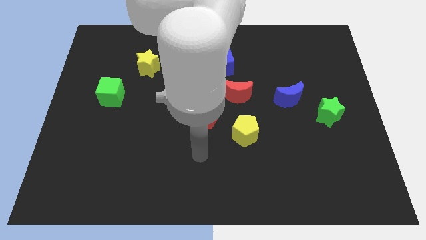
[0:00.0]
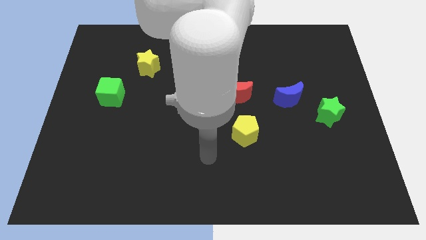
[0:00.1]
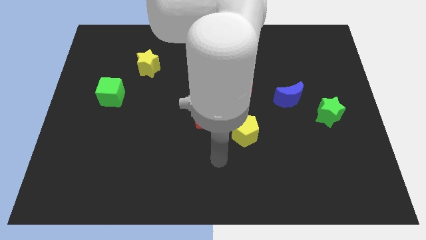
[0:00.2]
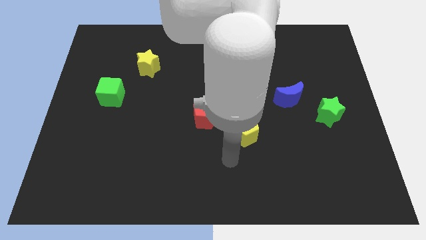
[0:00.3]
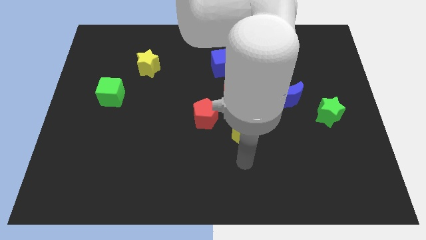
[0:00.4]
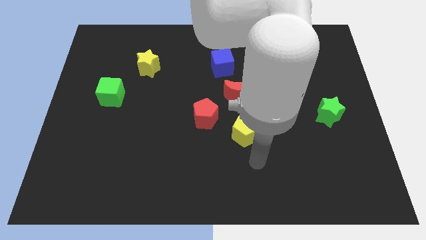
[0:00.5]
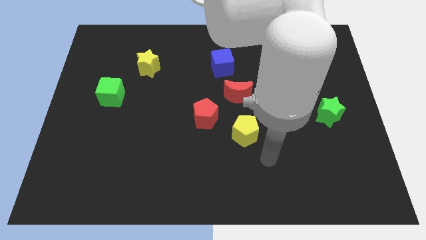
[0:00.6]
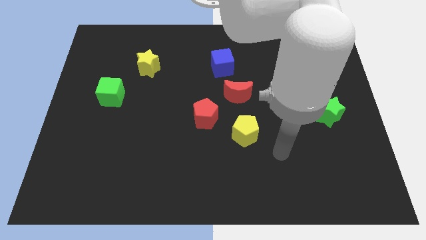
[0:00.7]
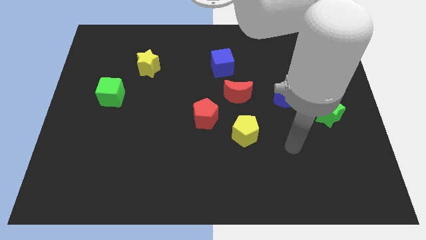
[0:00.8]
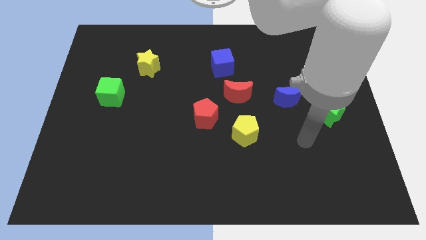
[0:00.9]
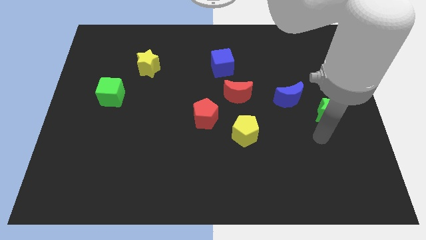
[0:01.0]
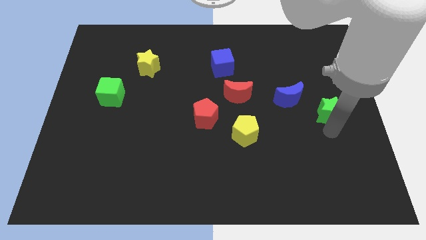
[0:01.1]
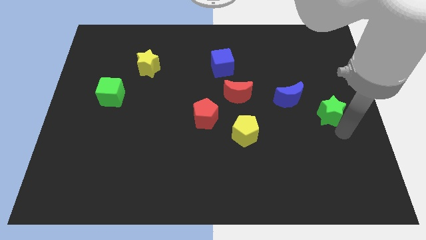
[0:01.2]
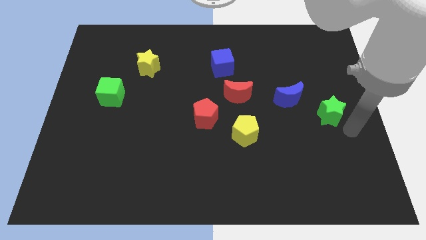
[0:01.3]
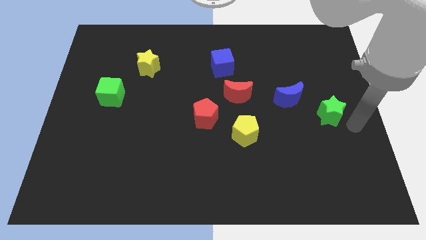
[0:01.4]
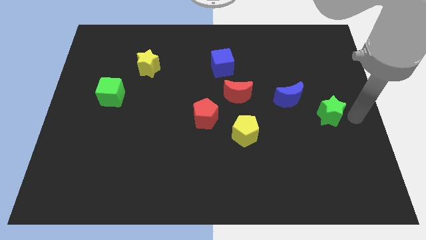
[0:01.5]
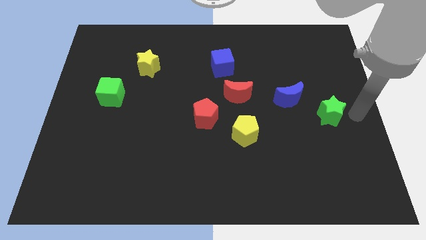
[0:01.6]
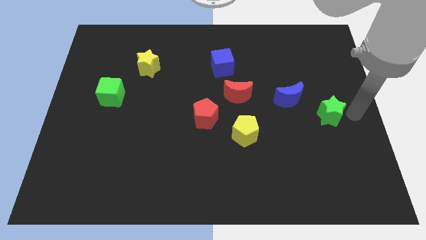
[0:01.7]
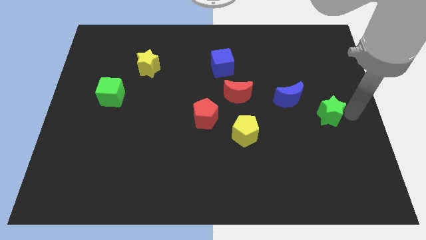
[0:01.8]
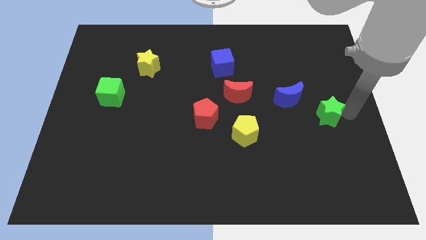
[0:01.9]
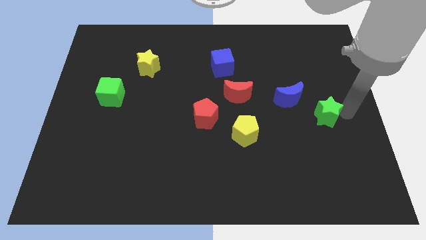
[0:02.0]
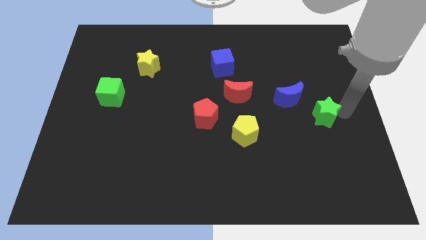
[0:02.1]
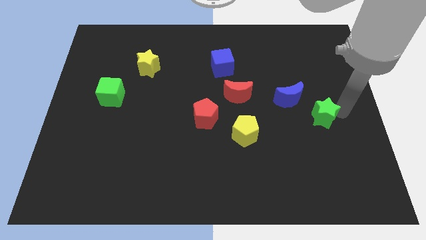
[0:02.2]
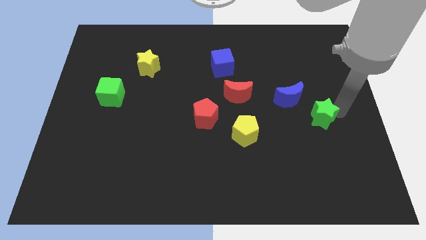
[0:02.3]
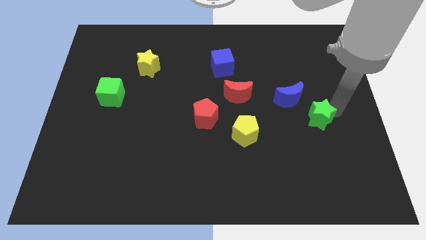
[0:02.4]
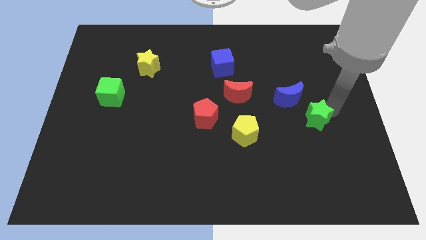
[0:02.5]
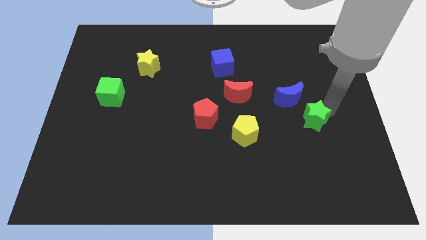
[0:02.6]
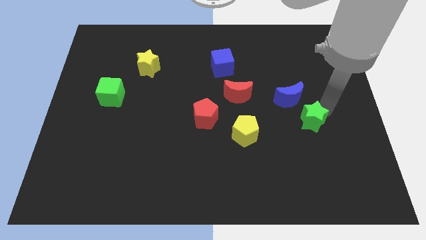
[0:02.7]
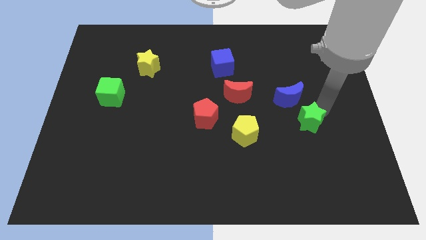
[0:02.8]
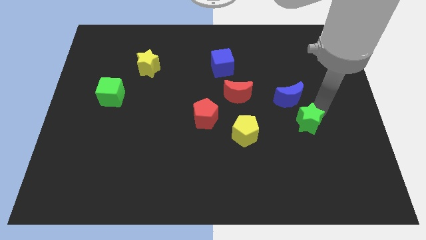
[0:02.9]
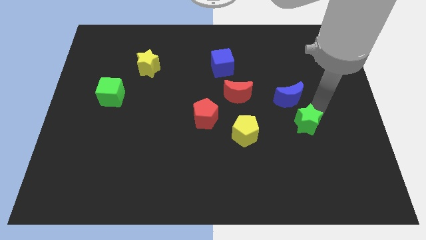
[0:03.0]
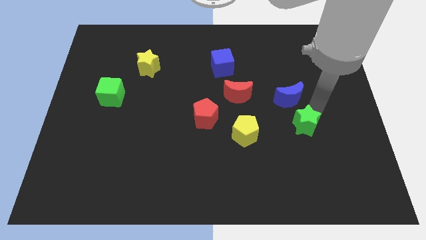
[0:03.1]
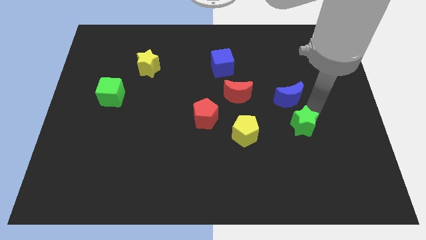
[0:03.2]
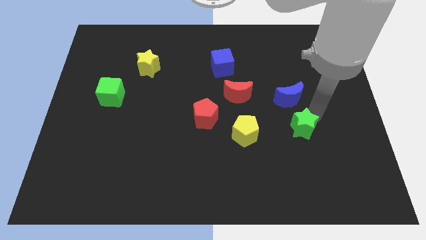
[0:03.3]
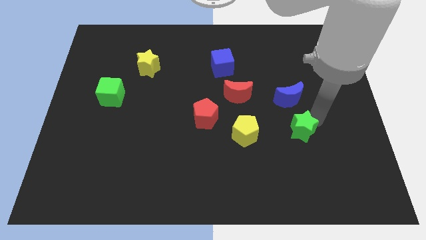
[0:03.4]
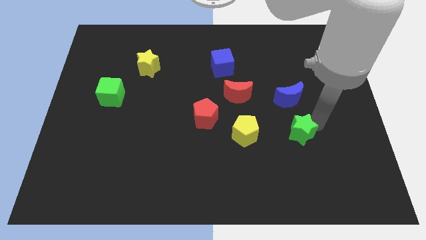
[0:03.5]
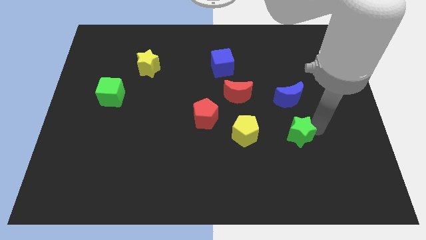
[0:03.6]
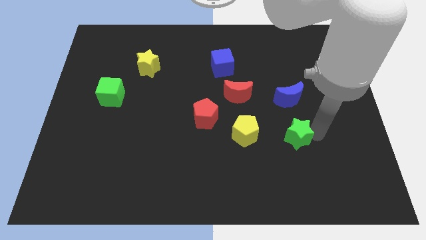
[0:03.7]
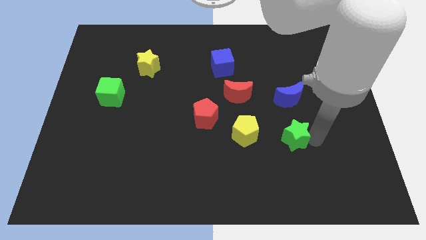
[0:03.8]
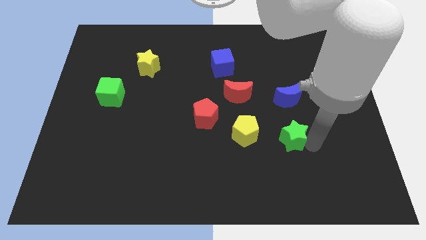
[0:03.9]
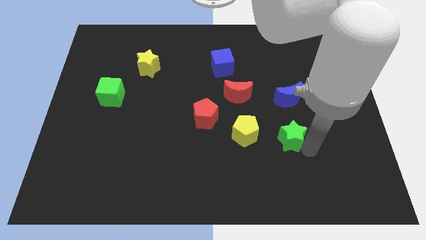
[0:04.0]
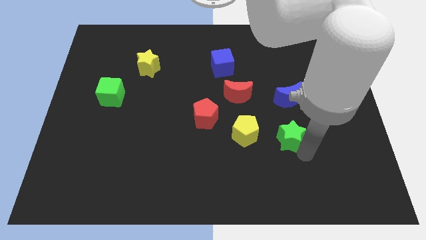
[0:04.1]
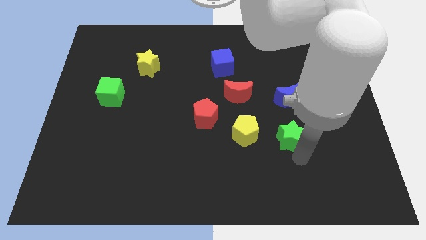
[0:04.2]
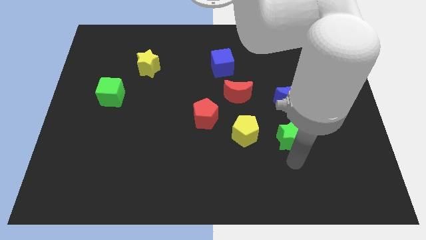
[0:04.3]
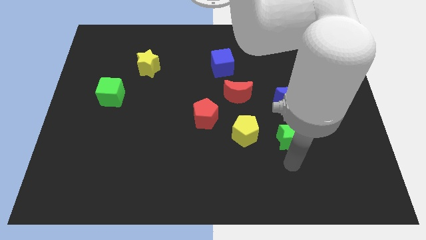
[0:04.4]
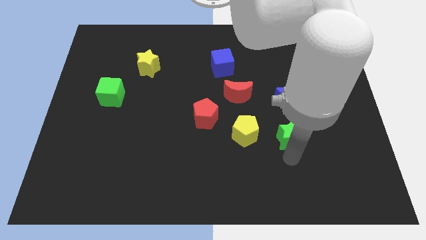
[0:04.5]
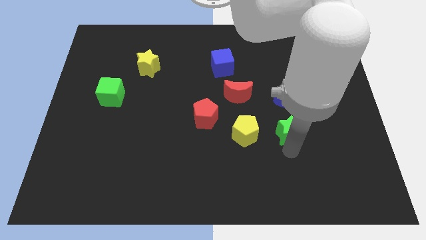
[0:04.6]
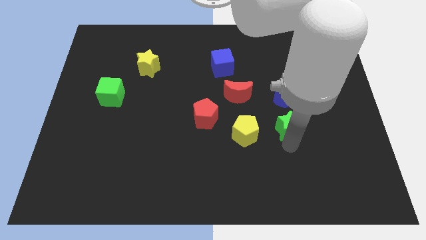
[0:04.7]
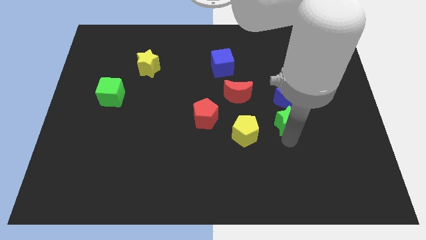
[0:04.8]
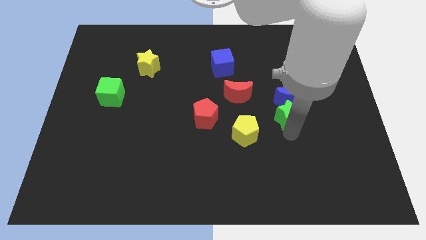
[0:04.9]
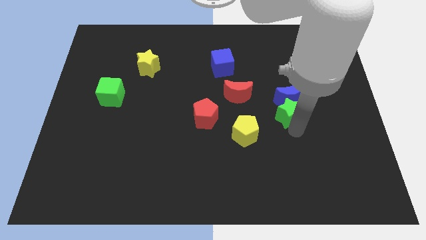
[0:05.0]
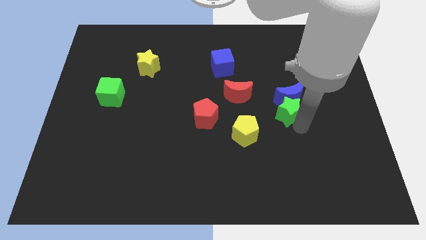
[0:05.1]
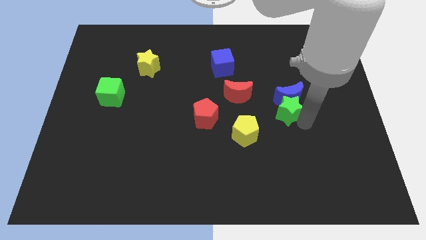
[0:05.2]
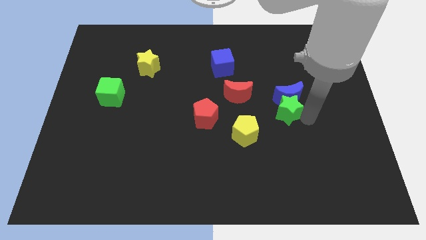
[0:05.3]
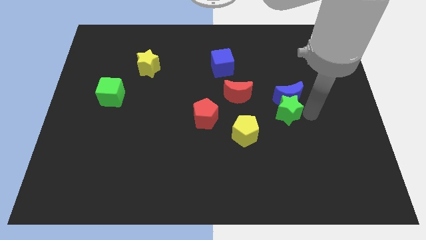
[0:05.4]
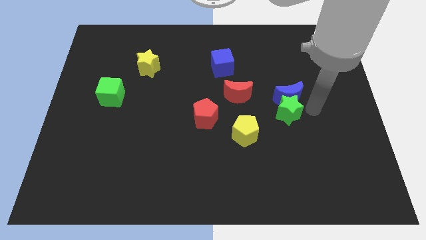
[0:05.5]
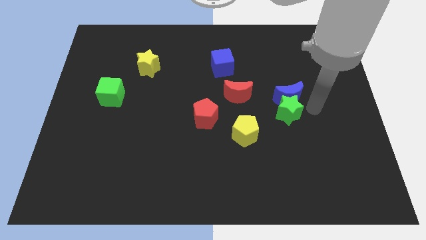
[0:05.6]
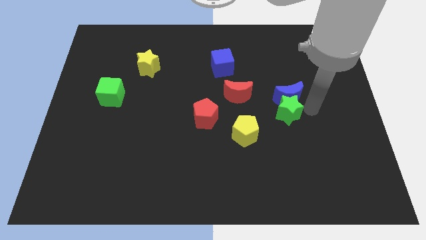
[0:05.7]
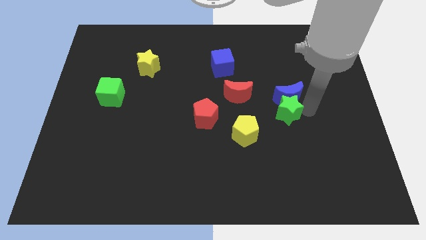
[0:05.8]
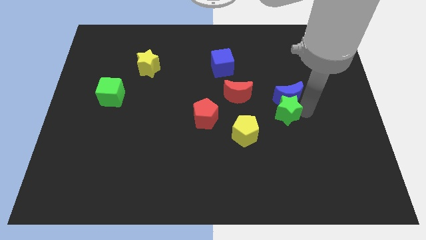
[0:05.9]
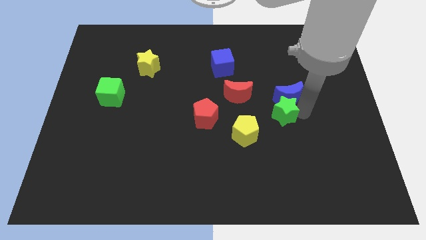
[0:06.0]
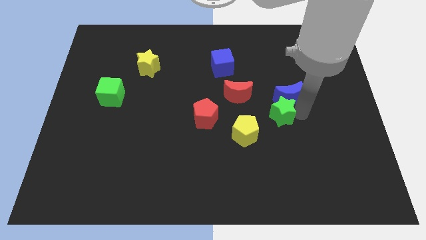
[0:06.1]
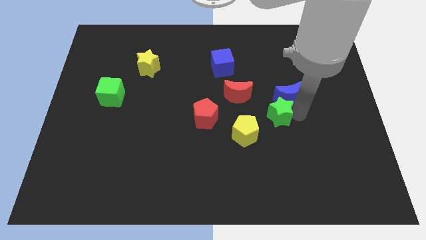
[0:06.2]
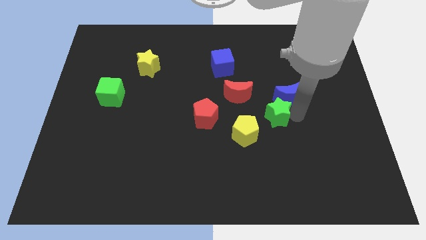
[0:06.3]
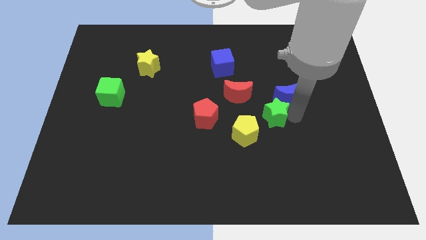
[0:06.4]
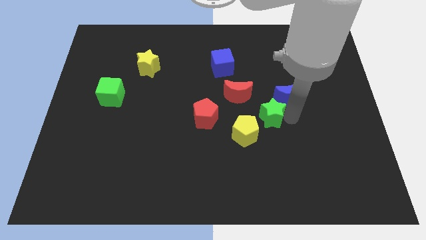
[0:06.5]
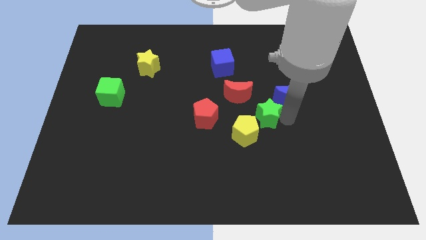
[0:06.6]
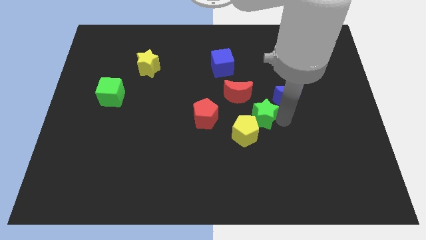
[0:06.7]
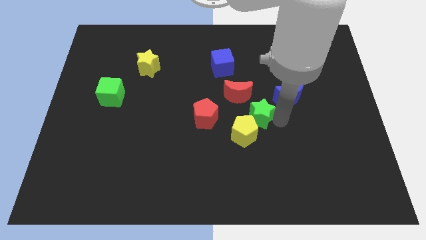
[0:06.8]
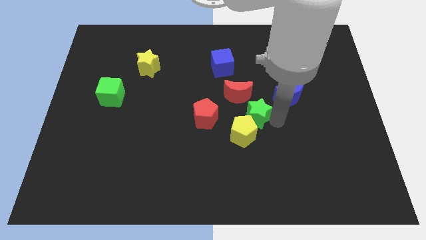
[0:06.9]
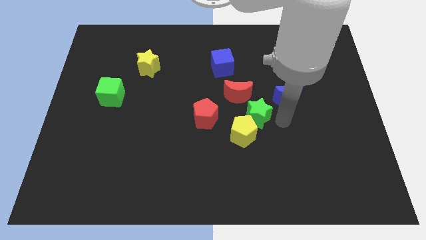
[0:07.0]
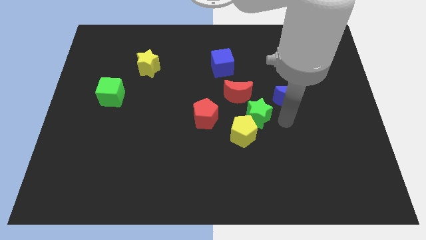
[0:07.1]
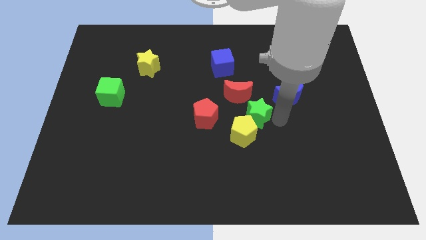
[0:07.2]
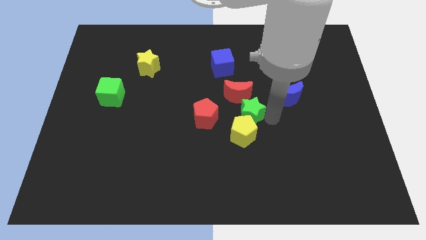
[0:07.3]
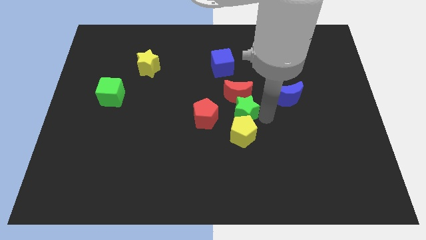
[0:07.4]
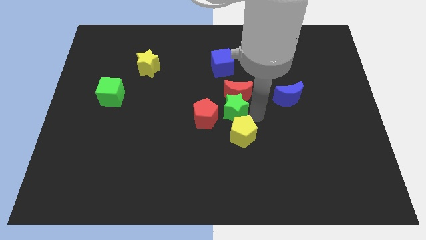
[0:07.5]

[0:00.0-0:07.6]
slide the green star left

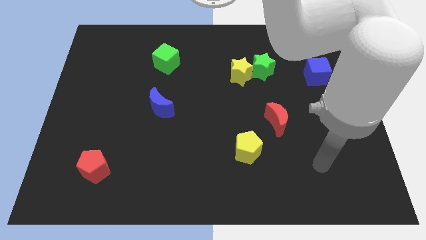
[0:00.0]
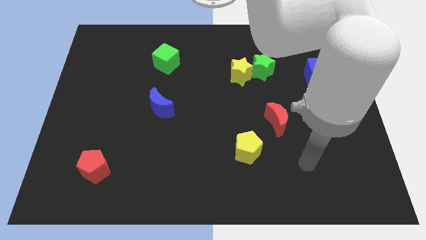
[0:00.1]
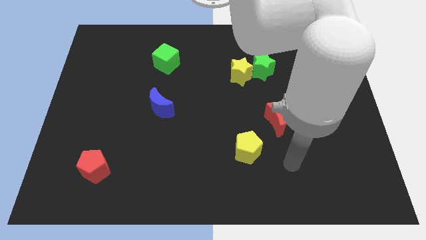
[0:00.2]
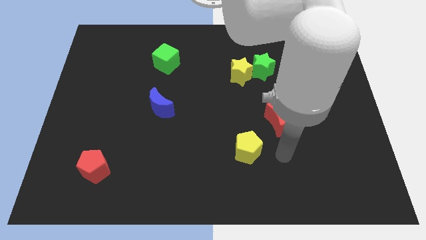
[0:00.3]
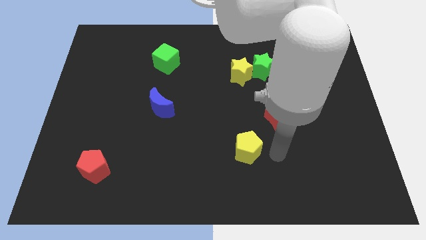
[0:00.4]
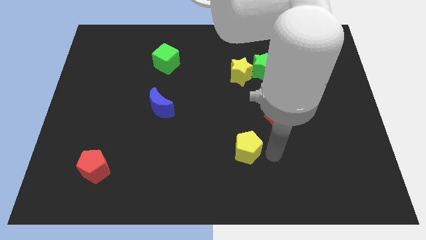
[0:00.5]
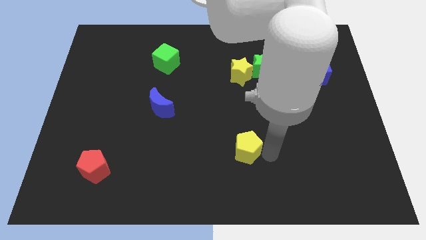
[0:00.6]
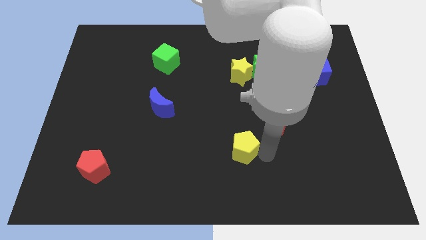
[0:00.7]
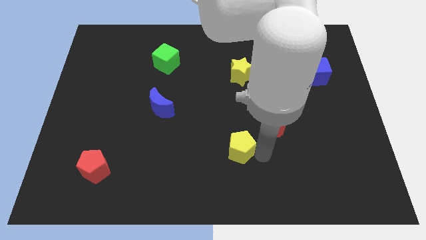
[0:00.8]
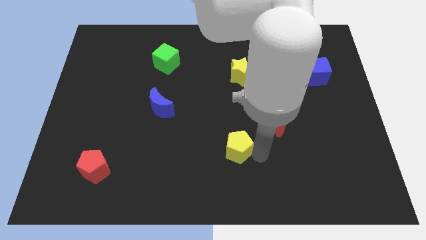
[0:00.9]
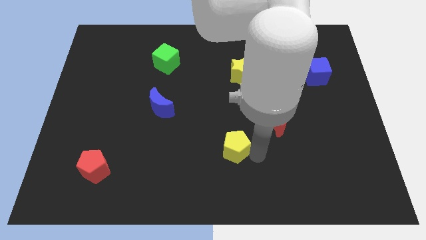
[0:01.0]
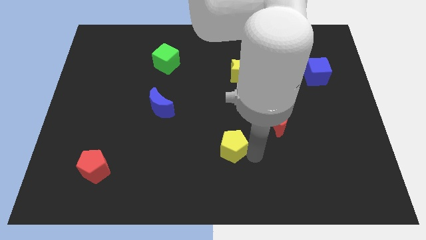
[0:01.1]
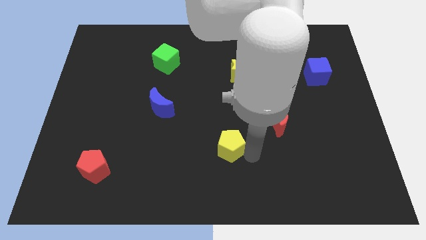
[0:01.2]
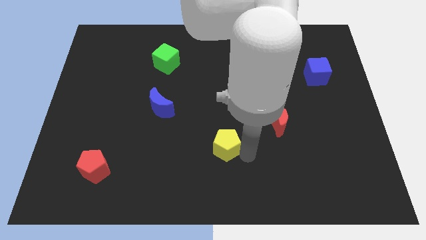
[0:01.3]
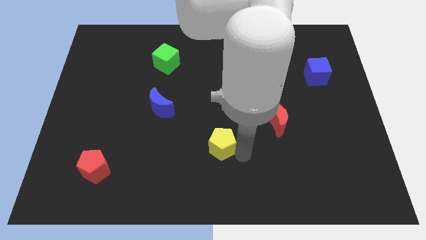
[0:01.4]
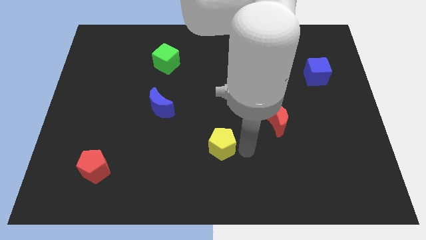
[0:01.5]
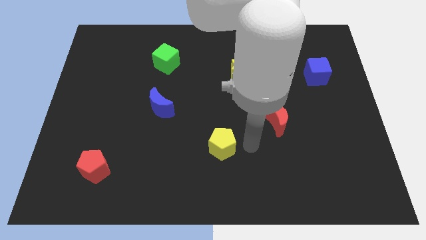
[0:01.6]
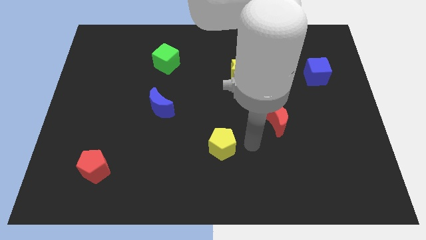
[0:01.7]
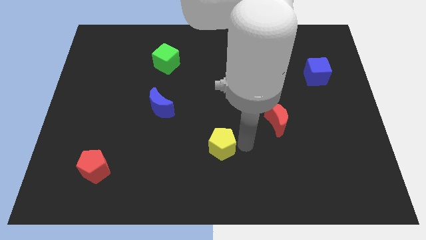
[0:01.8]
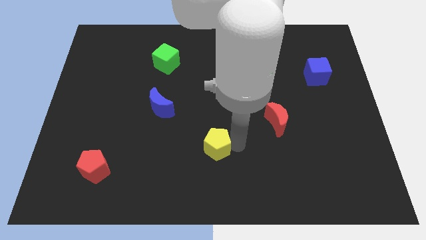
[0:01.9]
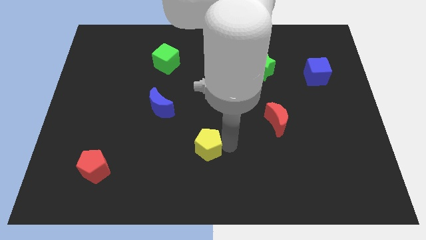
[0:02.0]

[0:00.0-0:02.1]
slide the yellow pentagon to the left a bit
